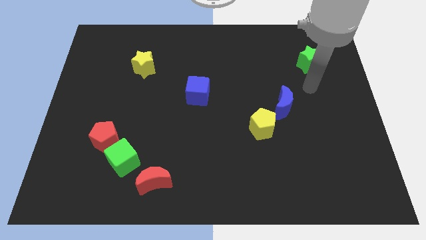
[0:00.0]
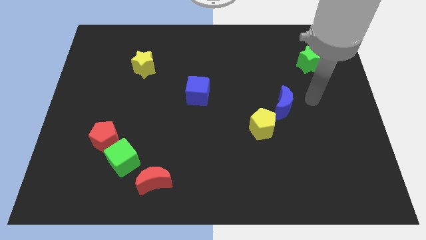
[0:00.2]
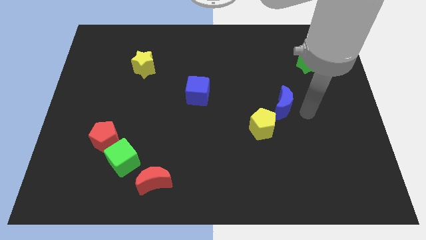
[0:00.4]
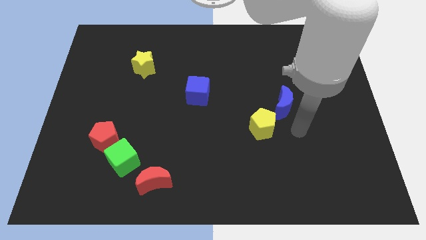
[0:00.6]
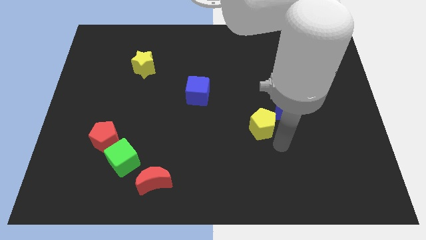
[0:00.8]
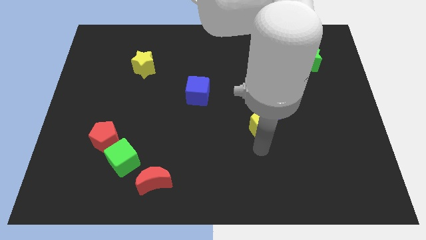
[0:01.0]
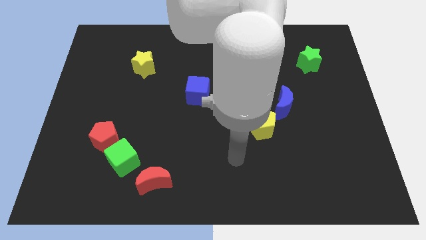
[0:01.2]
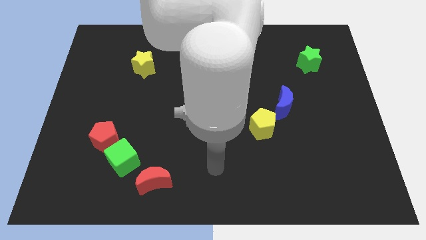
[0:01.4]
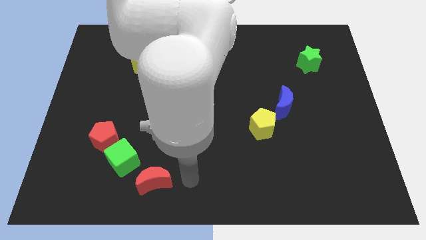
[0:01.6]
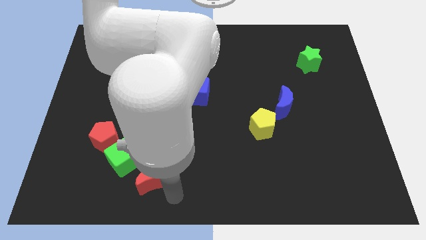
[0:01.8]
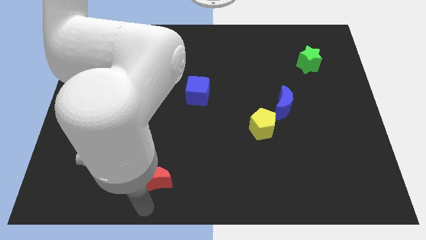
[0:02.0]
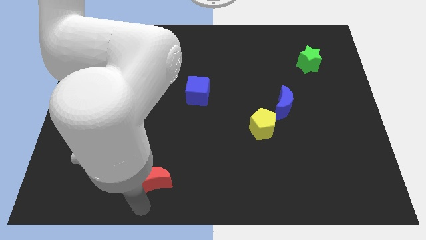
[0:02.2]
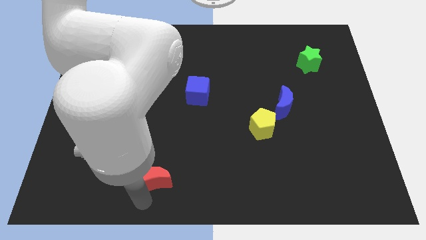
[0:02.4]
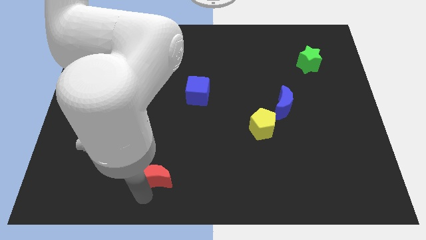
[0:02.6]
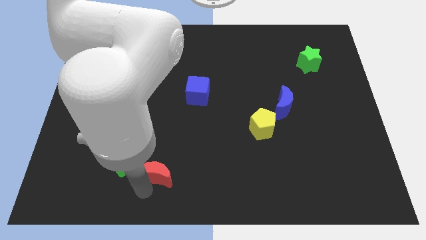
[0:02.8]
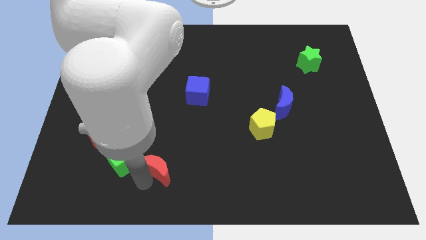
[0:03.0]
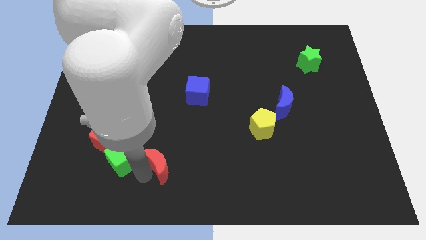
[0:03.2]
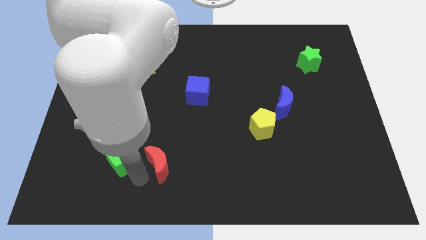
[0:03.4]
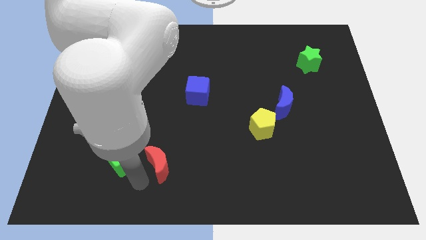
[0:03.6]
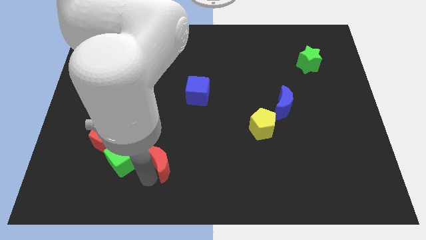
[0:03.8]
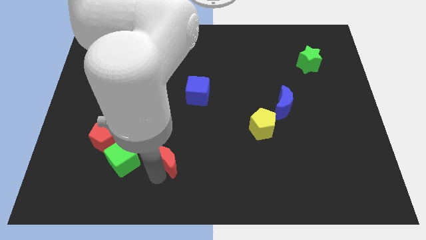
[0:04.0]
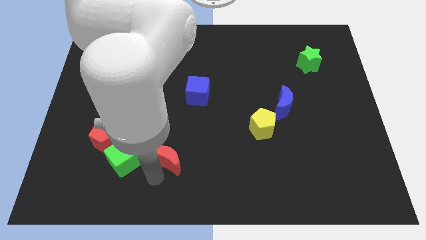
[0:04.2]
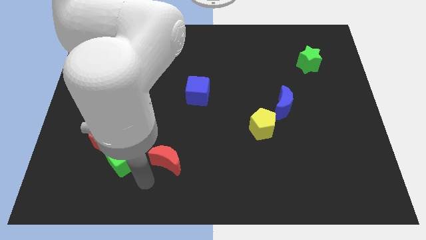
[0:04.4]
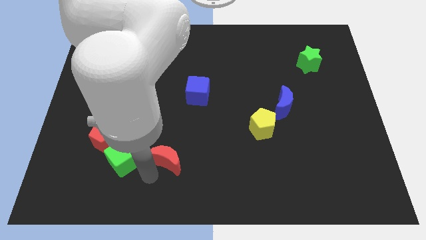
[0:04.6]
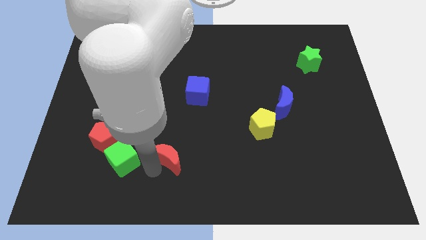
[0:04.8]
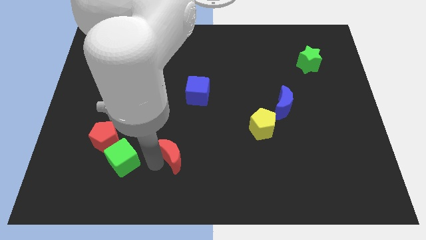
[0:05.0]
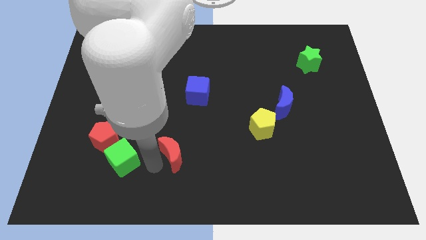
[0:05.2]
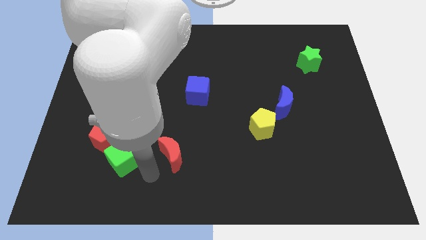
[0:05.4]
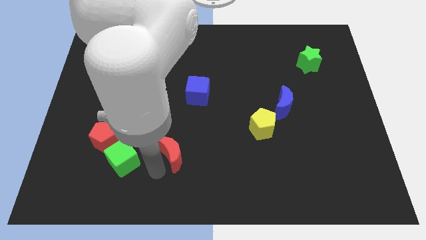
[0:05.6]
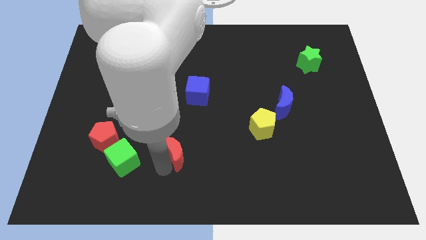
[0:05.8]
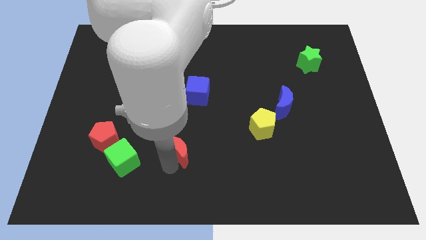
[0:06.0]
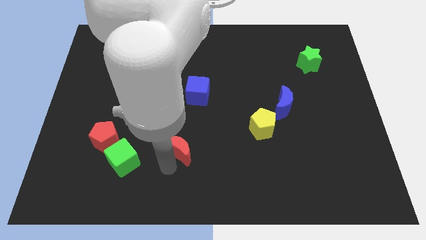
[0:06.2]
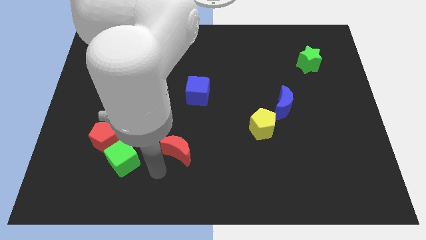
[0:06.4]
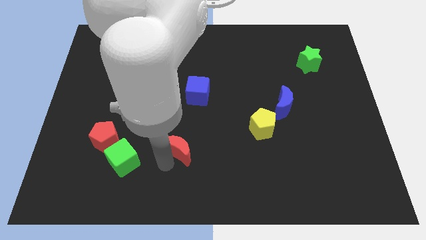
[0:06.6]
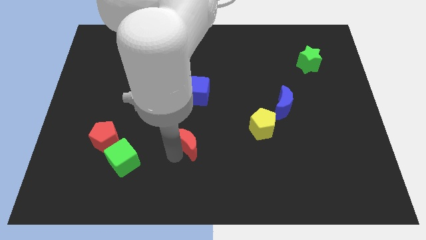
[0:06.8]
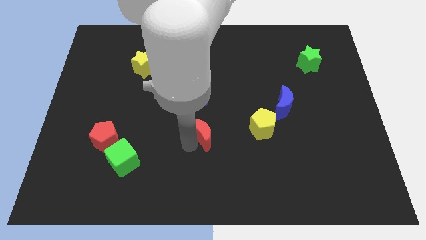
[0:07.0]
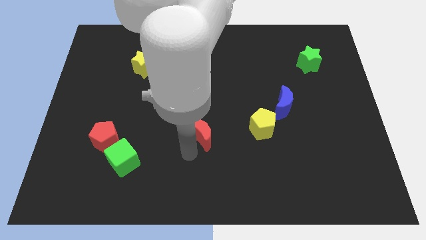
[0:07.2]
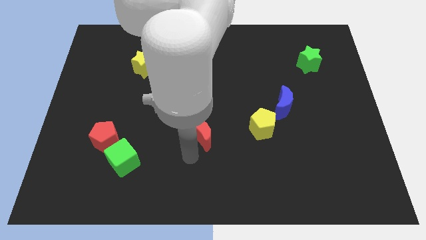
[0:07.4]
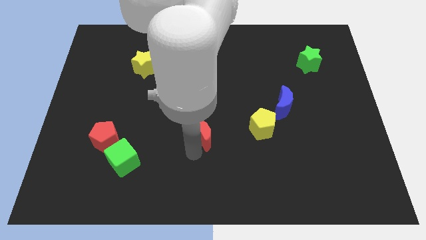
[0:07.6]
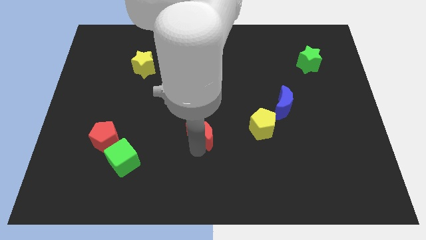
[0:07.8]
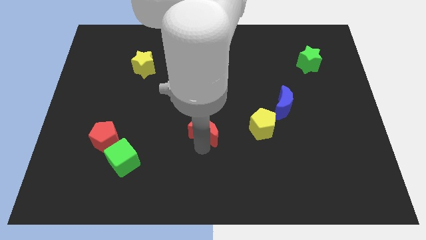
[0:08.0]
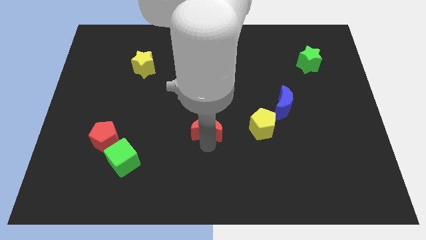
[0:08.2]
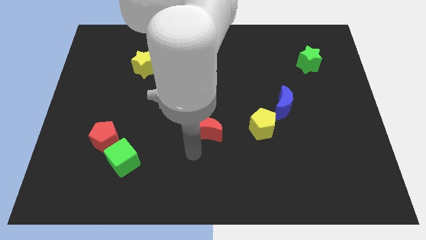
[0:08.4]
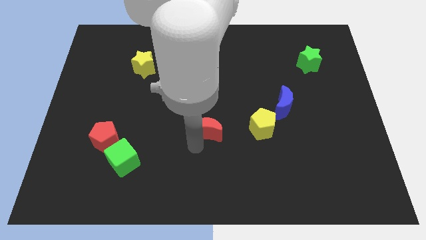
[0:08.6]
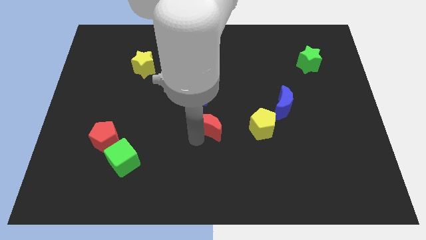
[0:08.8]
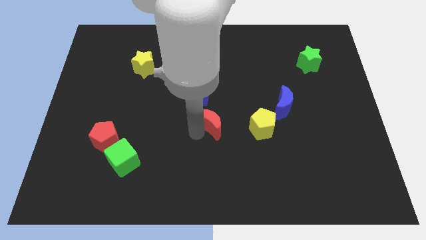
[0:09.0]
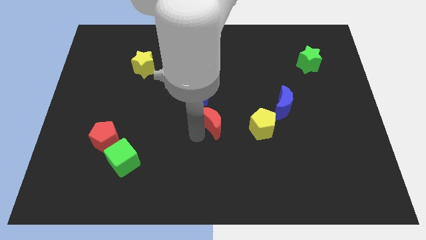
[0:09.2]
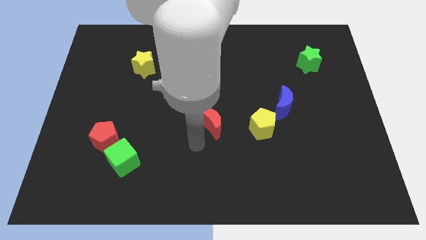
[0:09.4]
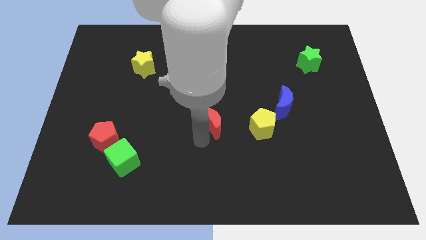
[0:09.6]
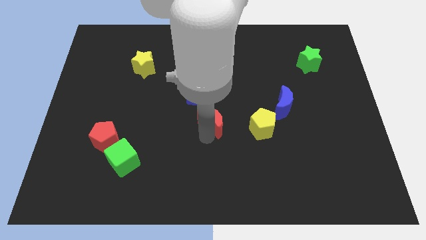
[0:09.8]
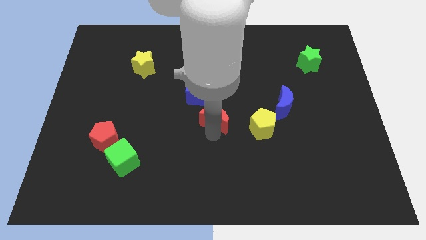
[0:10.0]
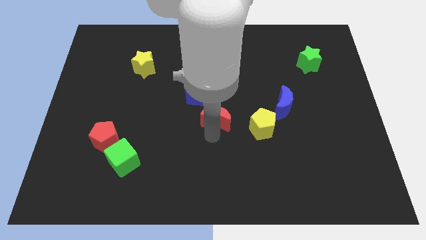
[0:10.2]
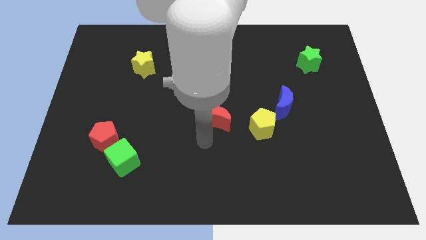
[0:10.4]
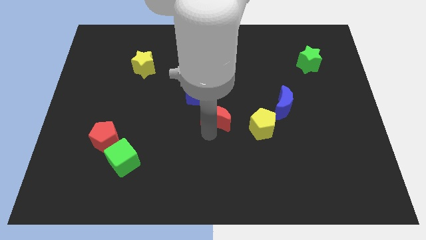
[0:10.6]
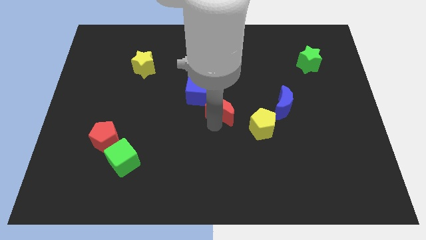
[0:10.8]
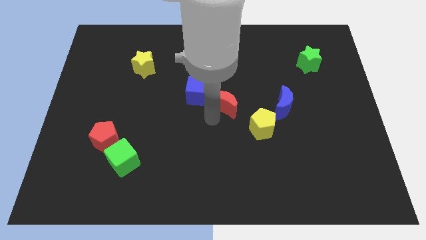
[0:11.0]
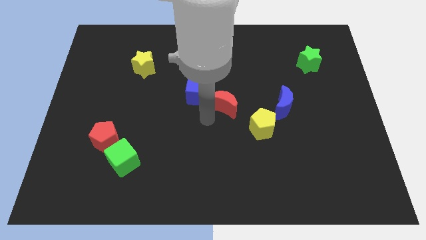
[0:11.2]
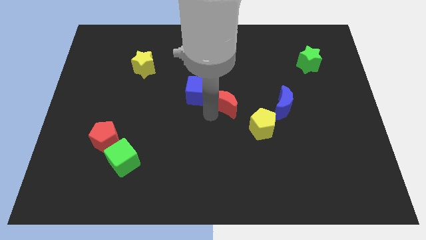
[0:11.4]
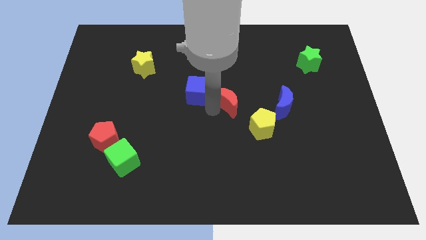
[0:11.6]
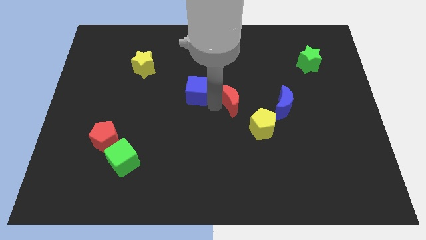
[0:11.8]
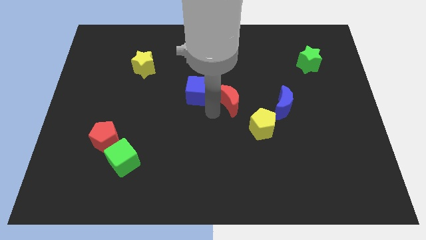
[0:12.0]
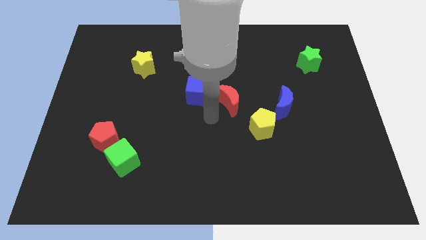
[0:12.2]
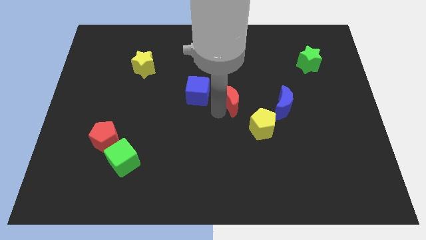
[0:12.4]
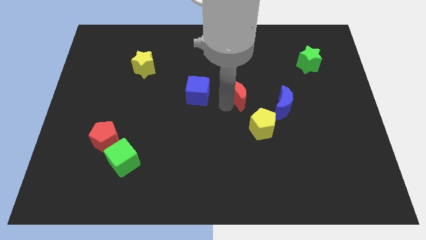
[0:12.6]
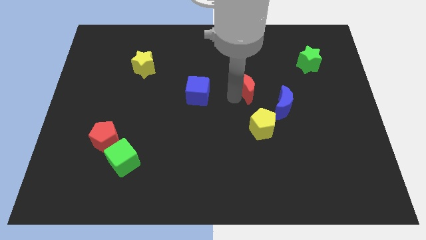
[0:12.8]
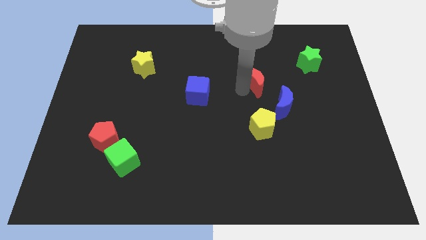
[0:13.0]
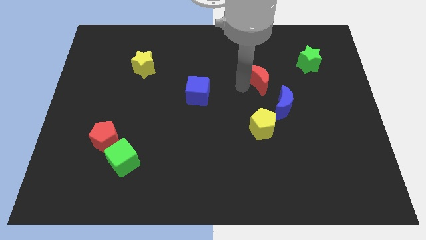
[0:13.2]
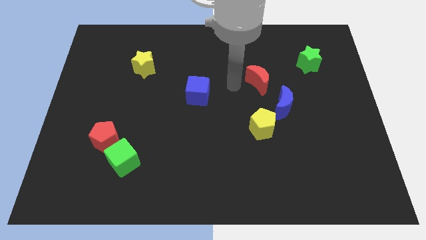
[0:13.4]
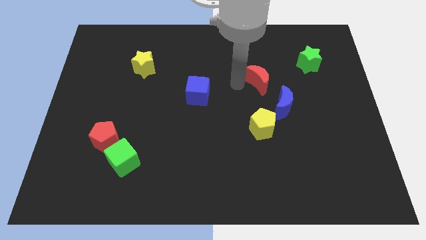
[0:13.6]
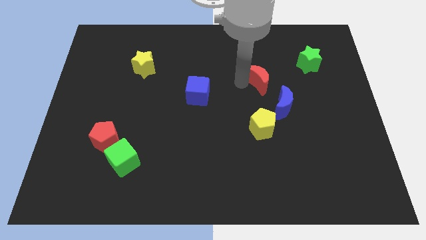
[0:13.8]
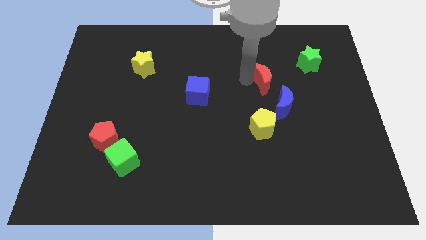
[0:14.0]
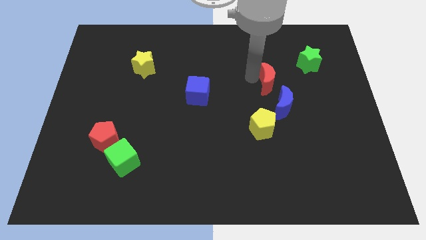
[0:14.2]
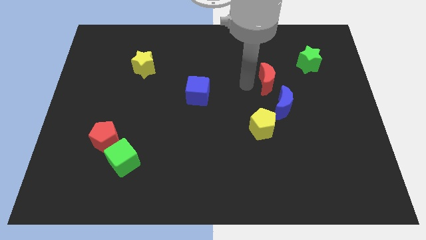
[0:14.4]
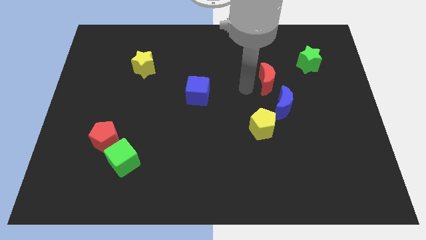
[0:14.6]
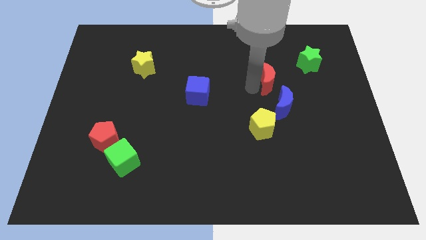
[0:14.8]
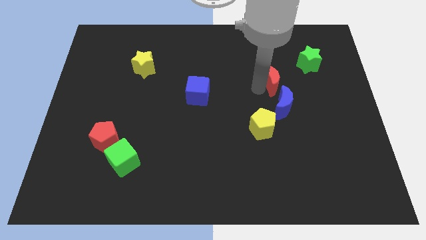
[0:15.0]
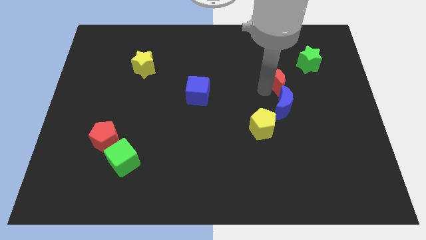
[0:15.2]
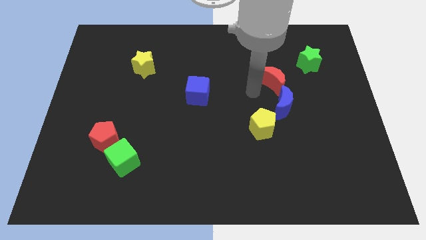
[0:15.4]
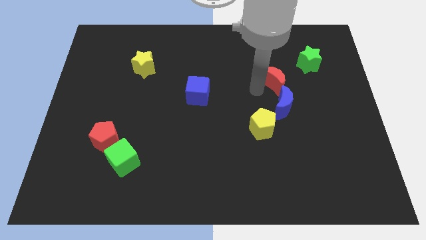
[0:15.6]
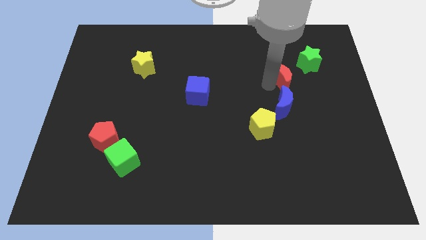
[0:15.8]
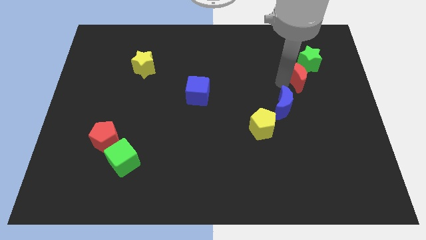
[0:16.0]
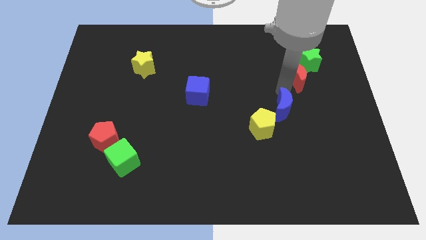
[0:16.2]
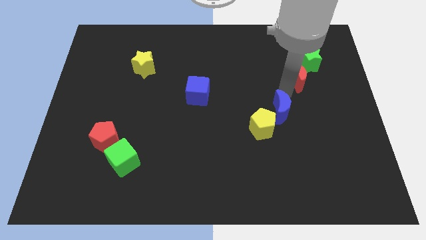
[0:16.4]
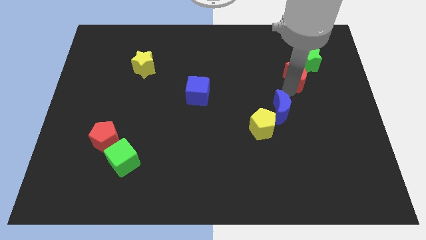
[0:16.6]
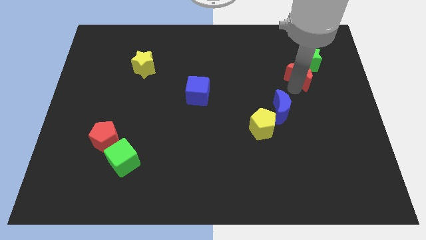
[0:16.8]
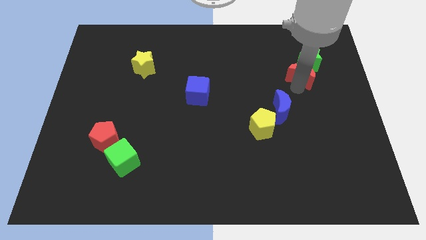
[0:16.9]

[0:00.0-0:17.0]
push the red moon next to the green star
